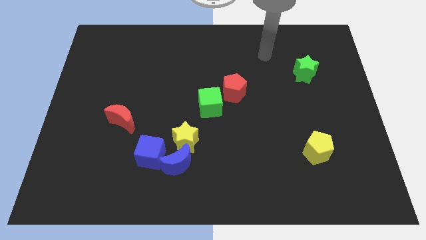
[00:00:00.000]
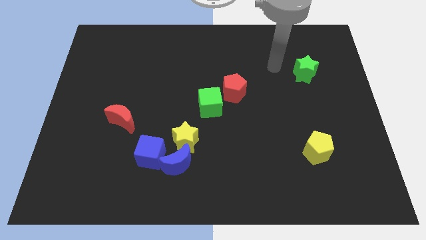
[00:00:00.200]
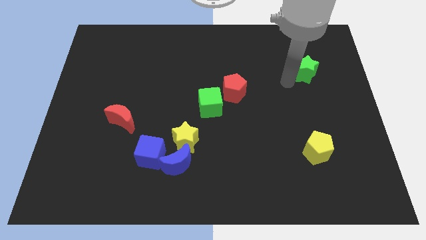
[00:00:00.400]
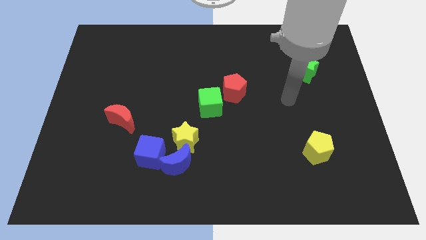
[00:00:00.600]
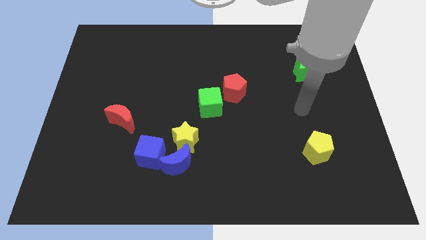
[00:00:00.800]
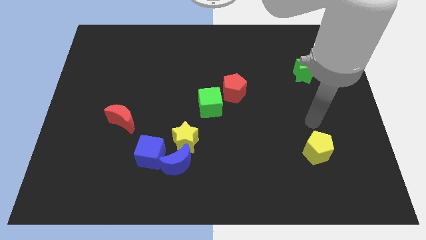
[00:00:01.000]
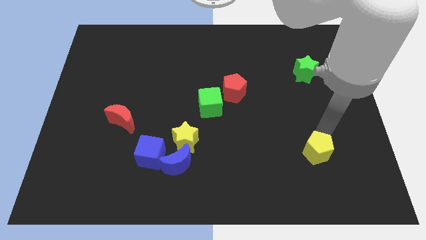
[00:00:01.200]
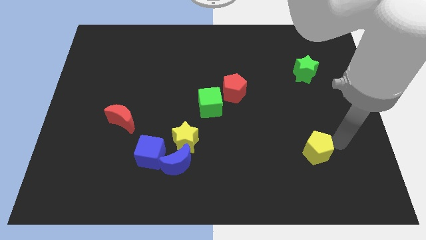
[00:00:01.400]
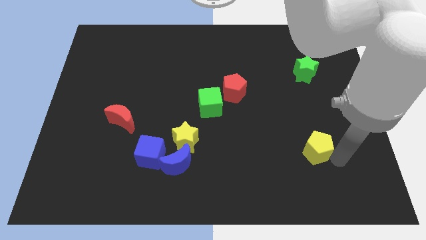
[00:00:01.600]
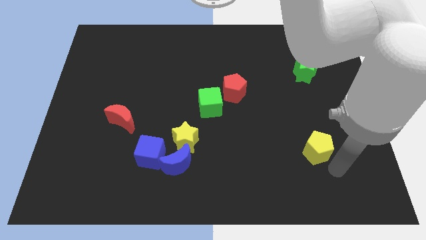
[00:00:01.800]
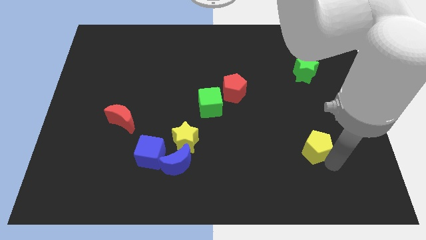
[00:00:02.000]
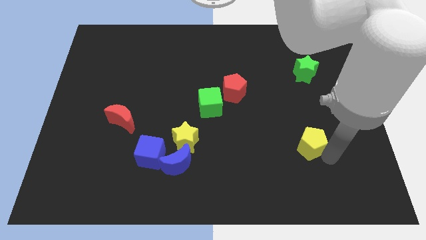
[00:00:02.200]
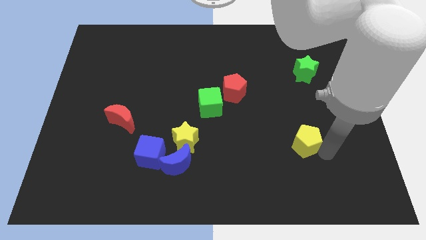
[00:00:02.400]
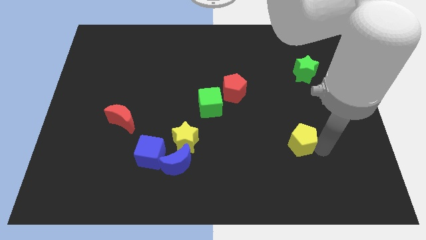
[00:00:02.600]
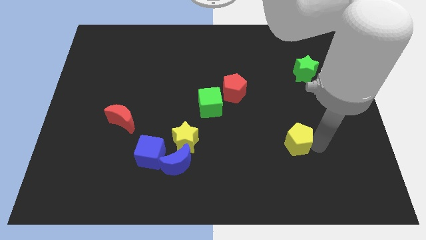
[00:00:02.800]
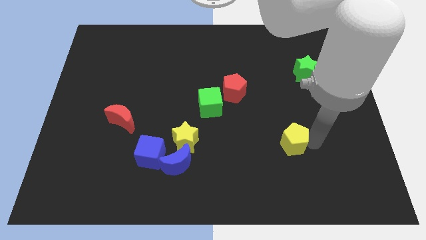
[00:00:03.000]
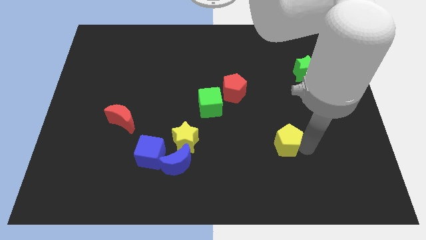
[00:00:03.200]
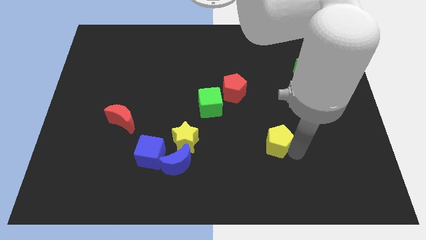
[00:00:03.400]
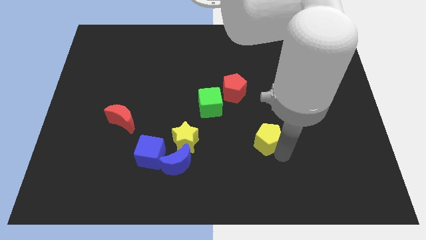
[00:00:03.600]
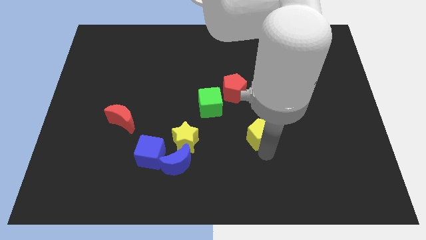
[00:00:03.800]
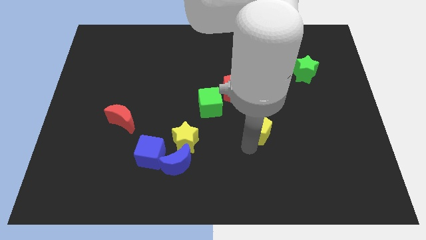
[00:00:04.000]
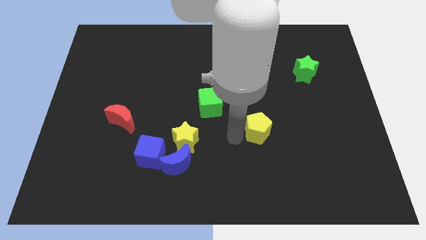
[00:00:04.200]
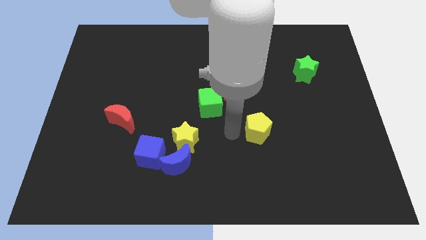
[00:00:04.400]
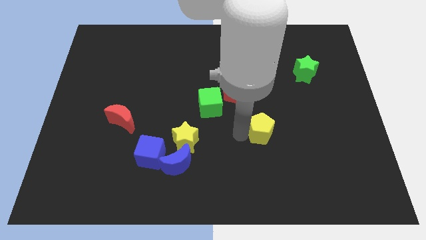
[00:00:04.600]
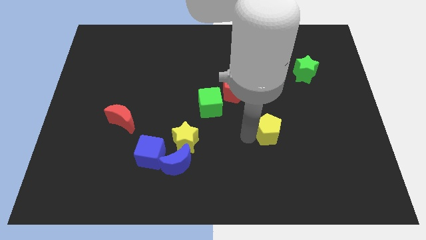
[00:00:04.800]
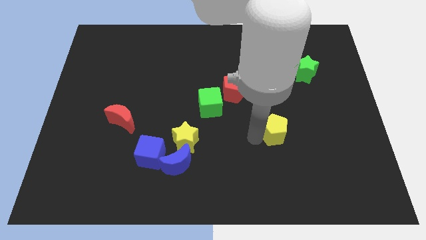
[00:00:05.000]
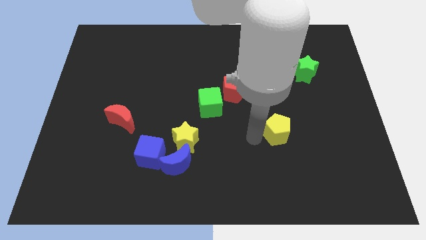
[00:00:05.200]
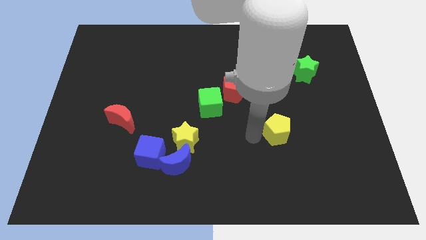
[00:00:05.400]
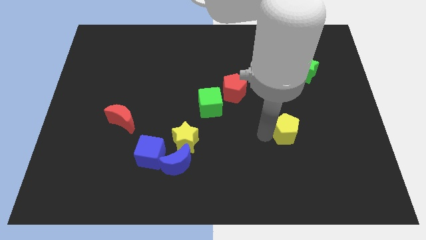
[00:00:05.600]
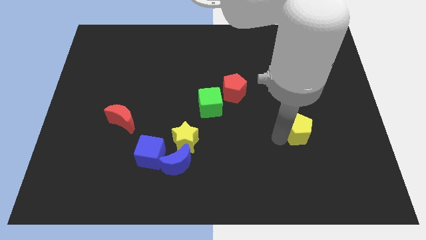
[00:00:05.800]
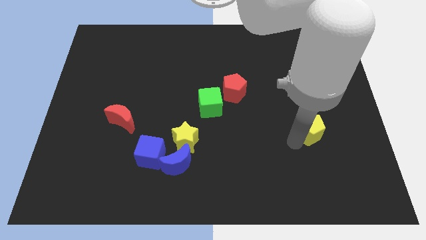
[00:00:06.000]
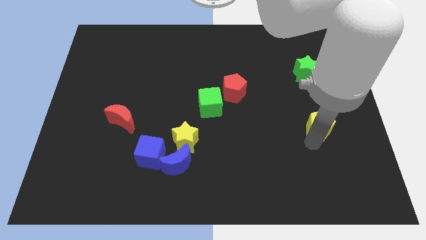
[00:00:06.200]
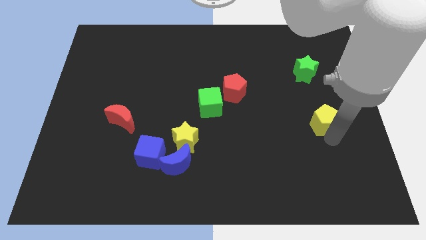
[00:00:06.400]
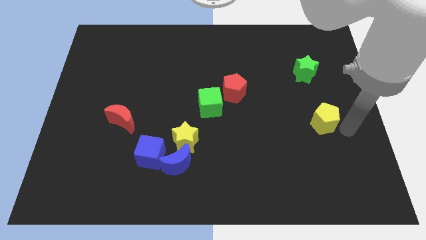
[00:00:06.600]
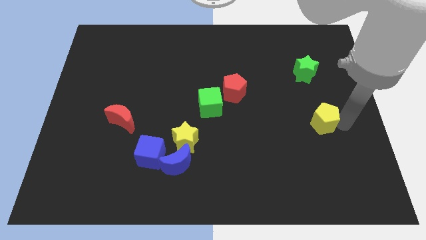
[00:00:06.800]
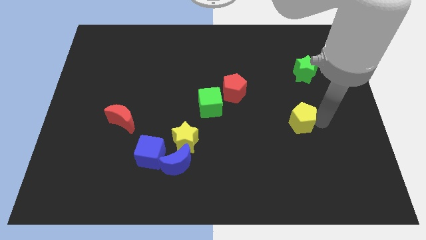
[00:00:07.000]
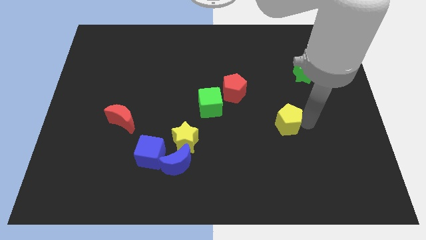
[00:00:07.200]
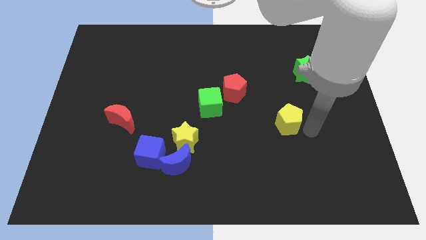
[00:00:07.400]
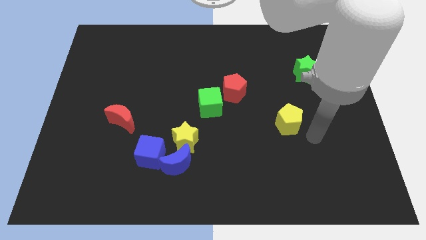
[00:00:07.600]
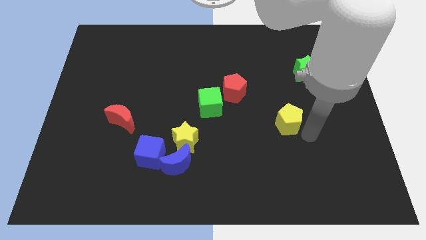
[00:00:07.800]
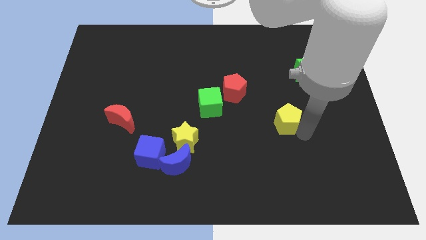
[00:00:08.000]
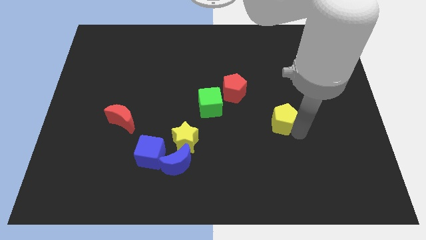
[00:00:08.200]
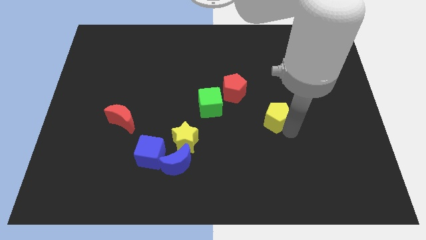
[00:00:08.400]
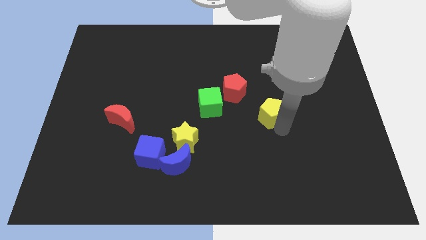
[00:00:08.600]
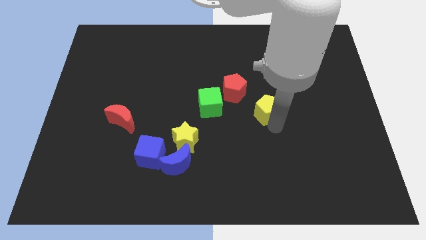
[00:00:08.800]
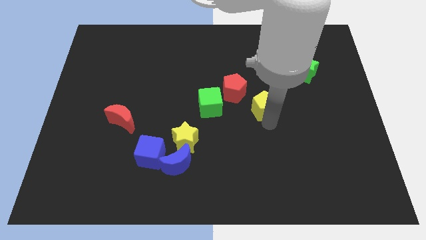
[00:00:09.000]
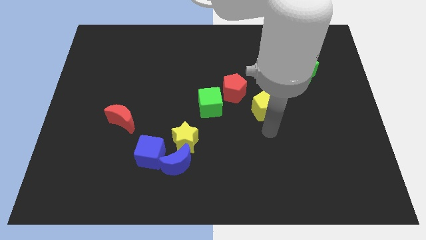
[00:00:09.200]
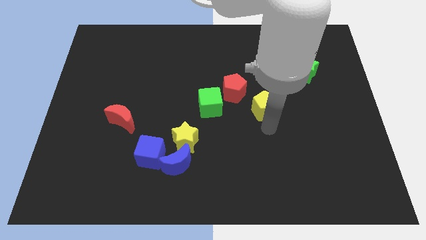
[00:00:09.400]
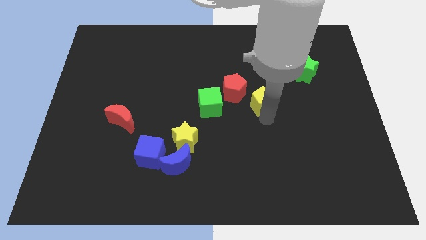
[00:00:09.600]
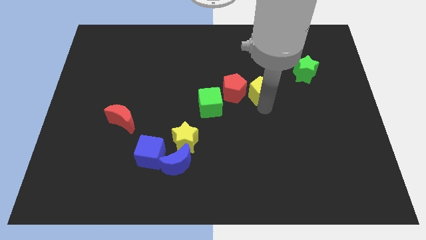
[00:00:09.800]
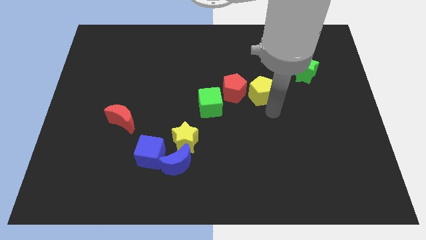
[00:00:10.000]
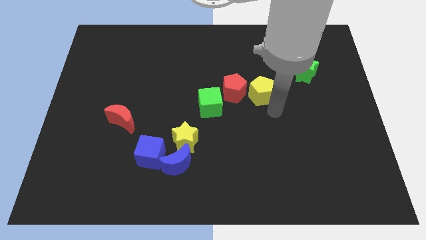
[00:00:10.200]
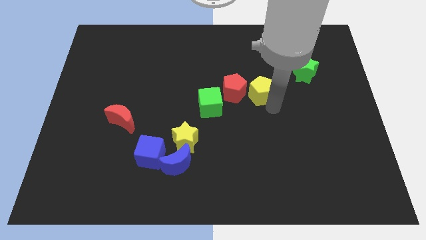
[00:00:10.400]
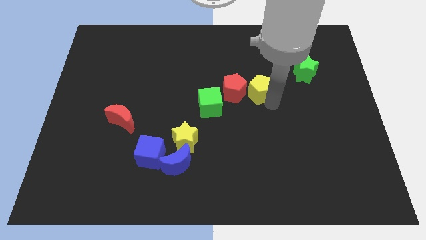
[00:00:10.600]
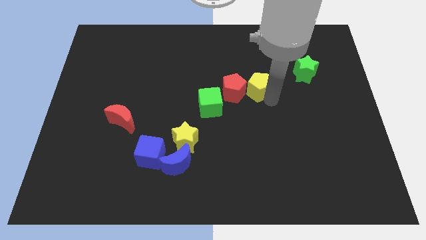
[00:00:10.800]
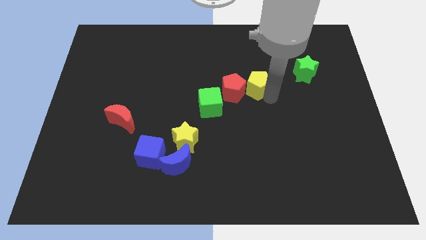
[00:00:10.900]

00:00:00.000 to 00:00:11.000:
push the yellow pentagon upwards and left diagonally

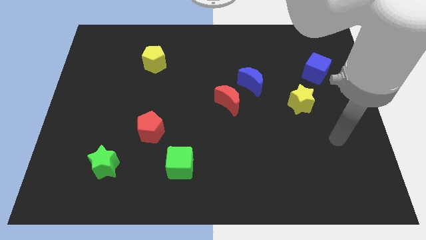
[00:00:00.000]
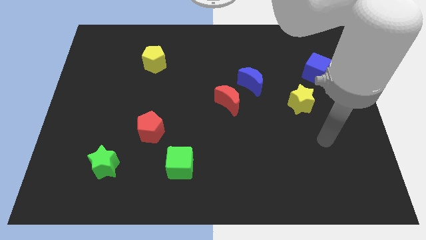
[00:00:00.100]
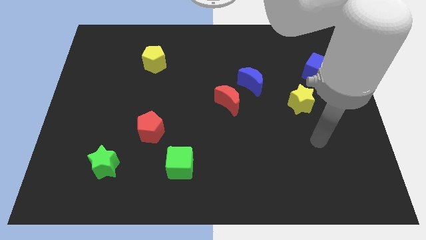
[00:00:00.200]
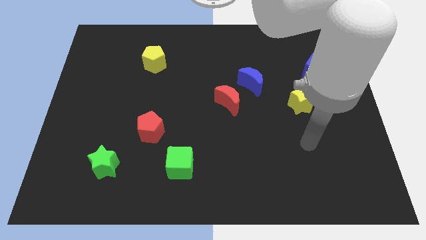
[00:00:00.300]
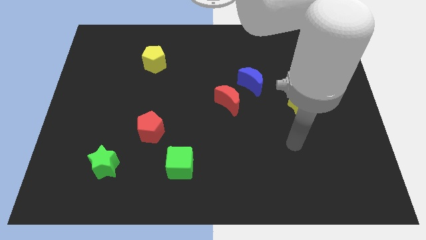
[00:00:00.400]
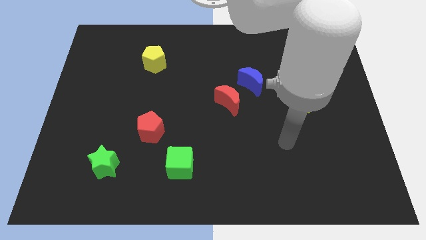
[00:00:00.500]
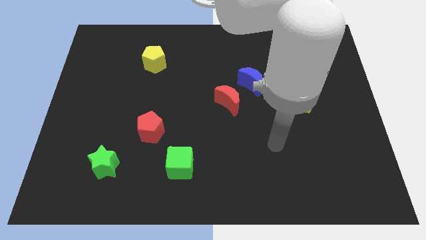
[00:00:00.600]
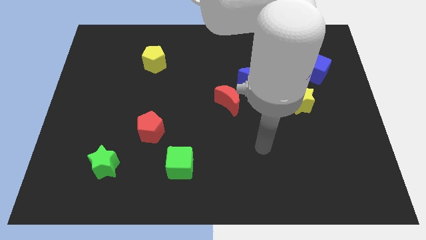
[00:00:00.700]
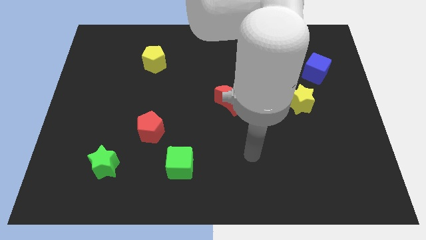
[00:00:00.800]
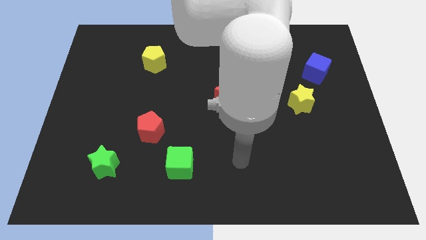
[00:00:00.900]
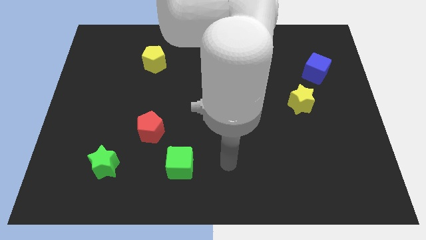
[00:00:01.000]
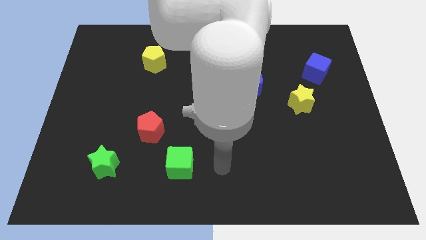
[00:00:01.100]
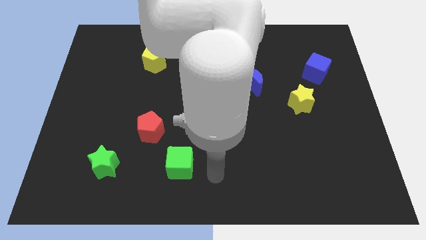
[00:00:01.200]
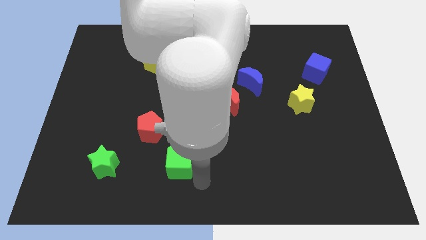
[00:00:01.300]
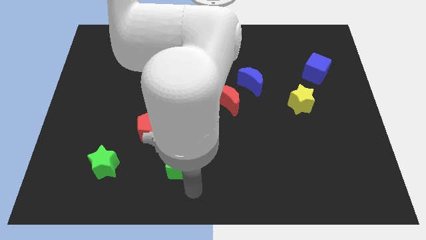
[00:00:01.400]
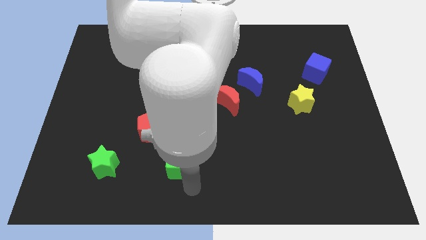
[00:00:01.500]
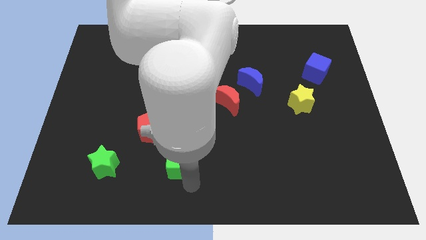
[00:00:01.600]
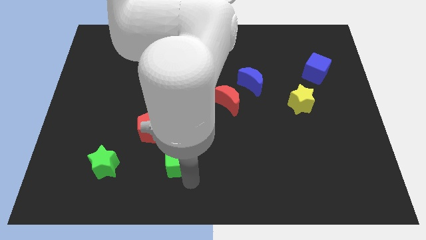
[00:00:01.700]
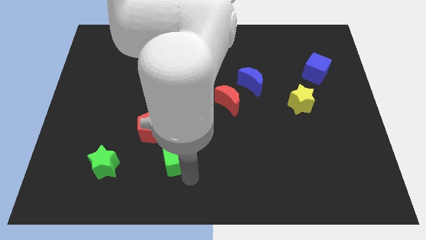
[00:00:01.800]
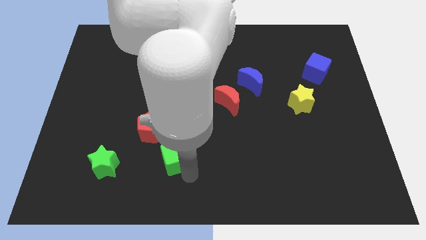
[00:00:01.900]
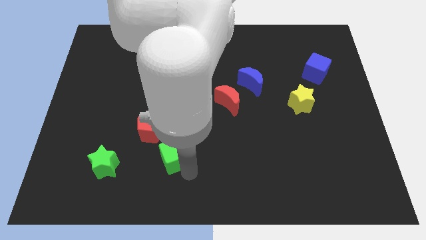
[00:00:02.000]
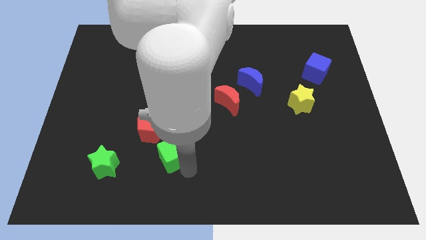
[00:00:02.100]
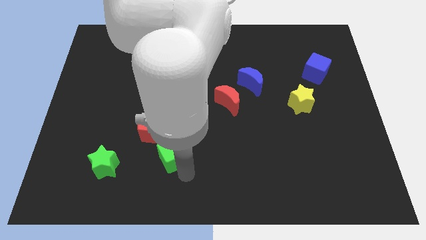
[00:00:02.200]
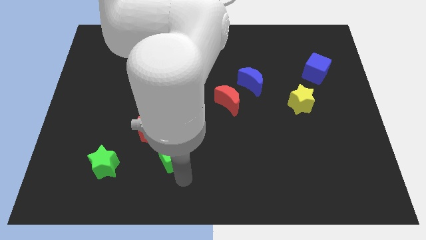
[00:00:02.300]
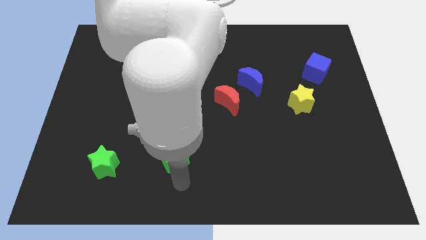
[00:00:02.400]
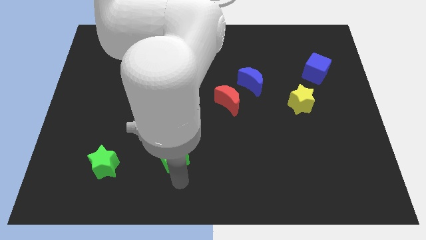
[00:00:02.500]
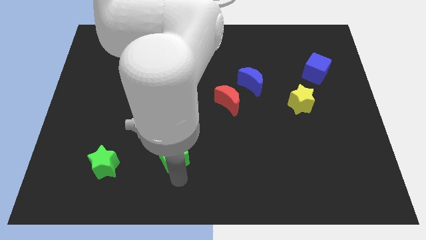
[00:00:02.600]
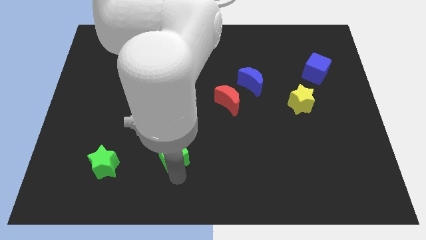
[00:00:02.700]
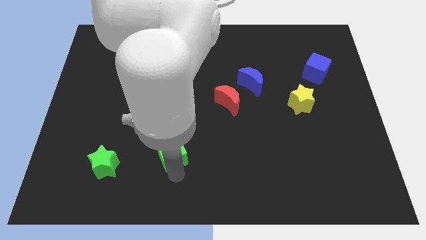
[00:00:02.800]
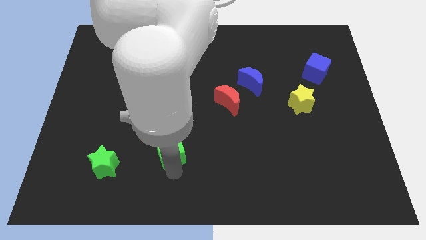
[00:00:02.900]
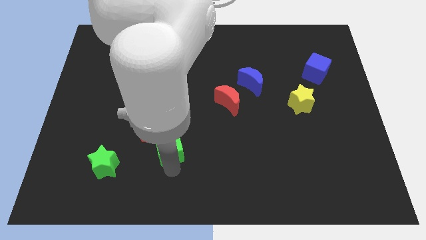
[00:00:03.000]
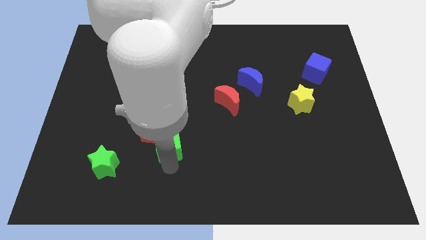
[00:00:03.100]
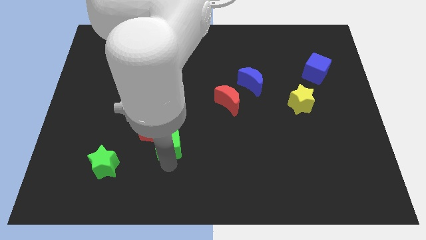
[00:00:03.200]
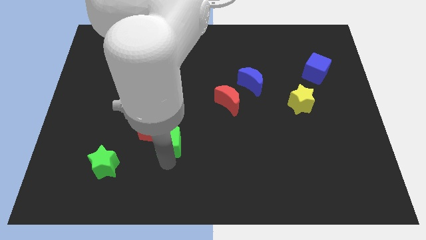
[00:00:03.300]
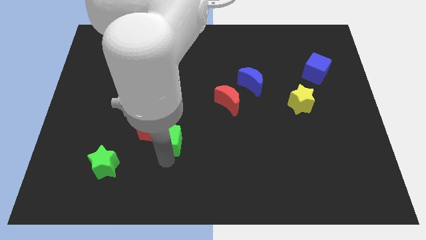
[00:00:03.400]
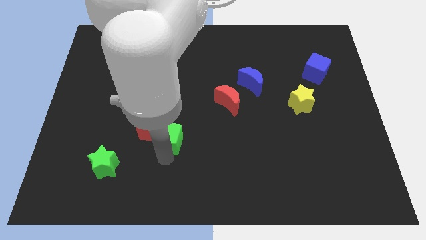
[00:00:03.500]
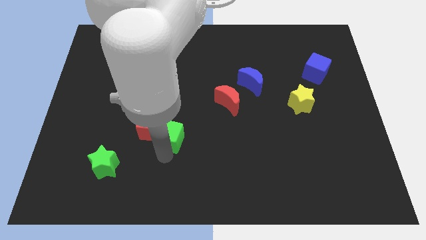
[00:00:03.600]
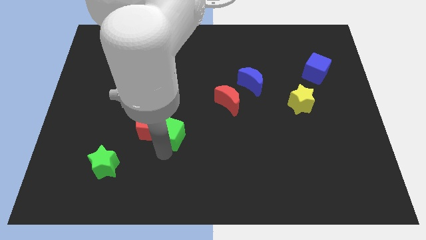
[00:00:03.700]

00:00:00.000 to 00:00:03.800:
slightly move the green cube up
